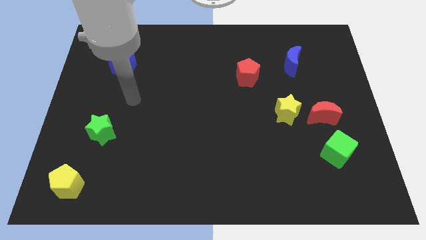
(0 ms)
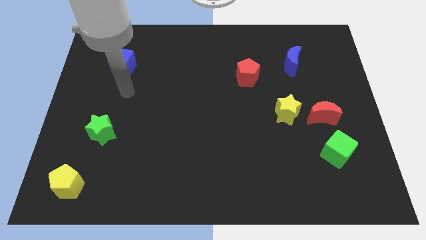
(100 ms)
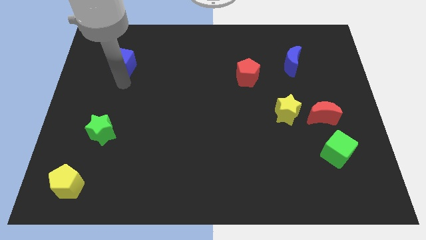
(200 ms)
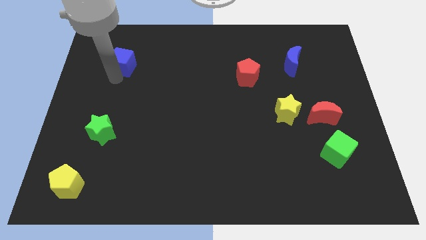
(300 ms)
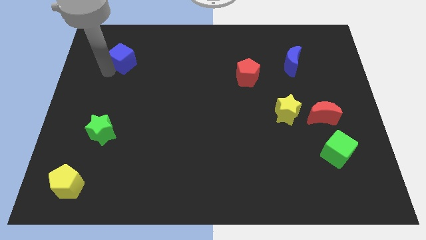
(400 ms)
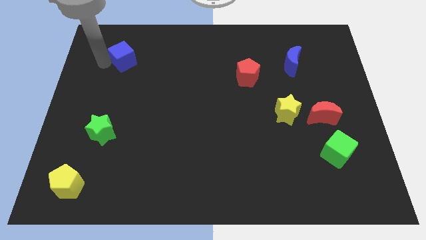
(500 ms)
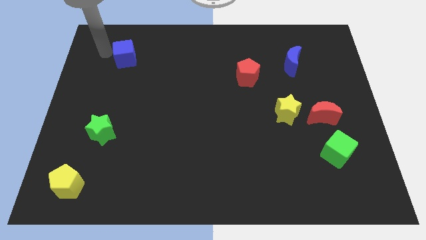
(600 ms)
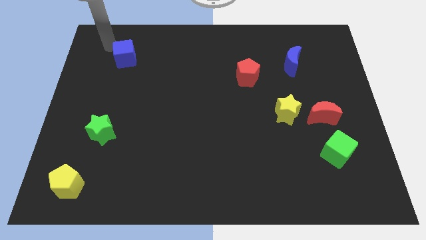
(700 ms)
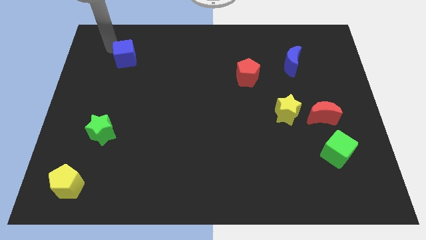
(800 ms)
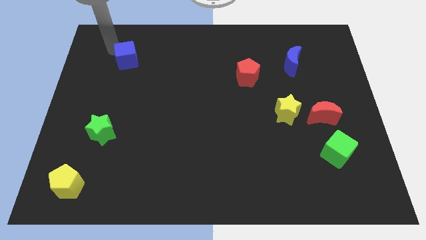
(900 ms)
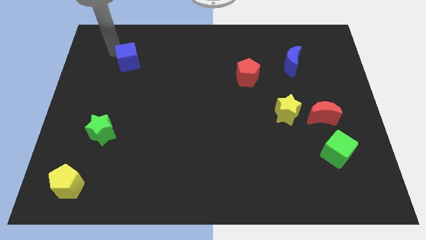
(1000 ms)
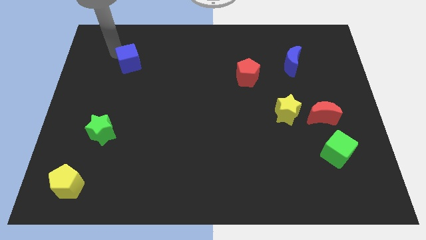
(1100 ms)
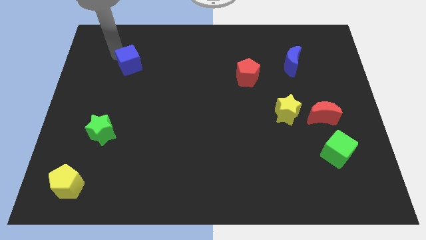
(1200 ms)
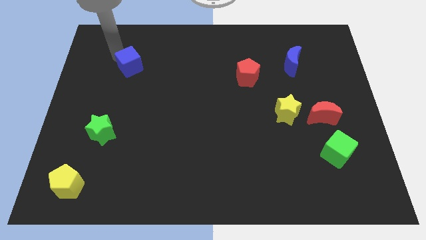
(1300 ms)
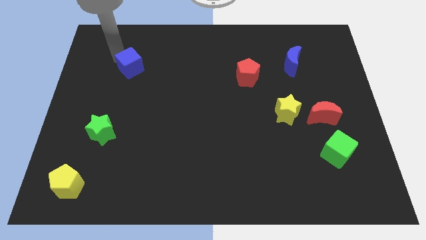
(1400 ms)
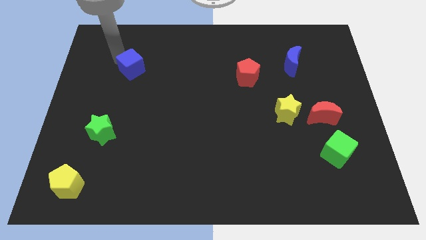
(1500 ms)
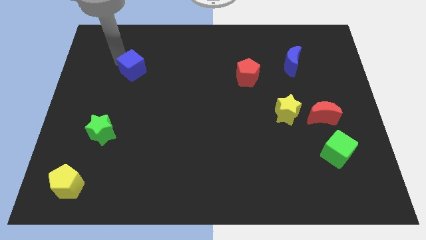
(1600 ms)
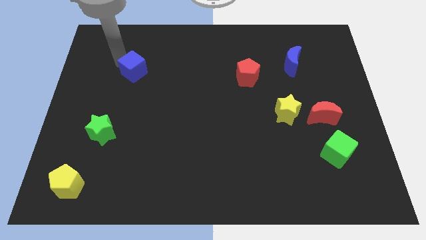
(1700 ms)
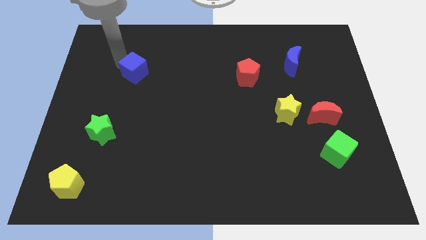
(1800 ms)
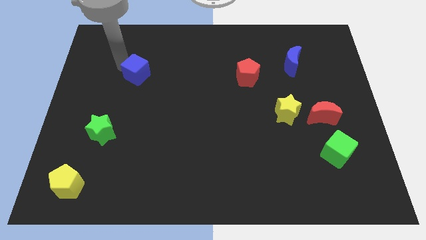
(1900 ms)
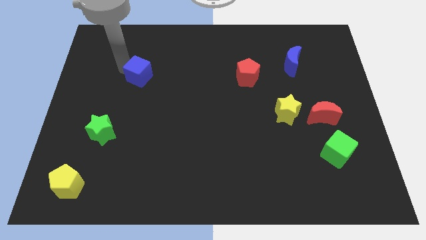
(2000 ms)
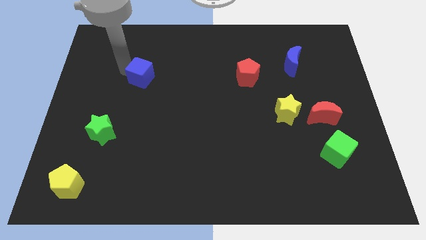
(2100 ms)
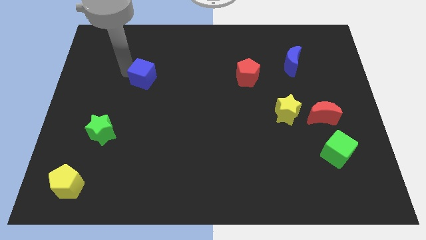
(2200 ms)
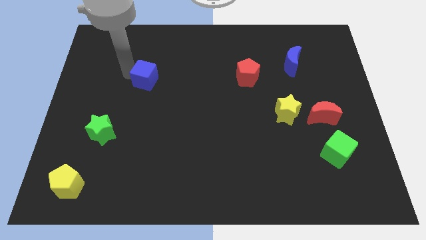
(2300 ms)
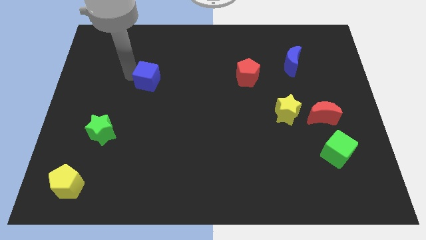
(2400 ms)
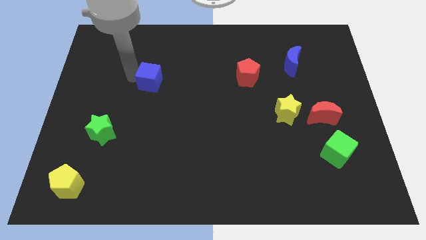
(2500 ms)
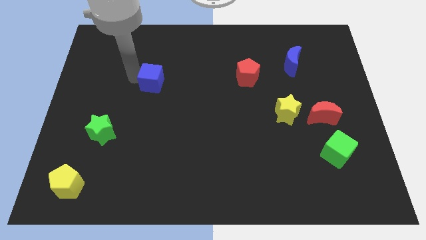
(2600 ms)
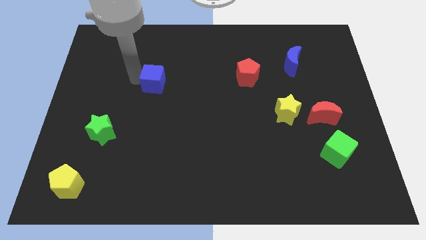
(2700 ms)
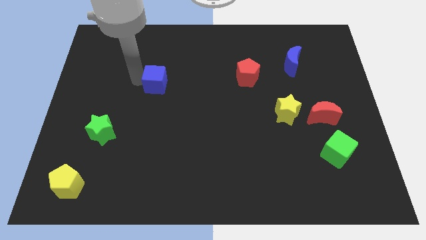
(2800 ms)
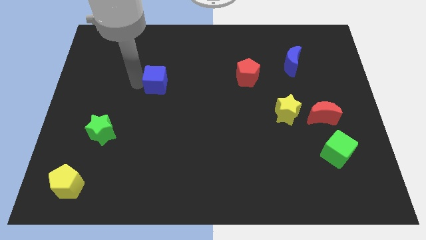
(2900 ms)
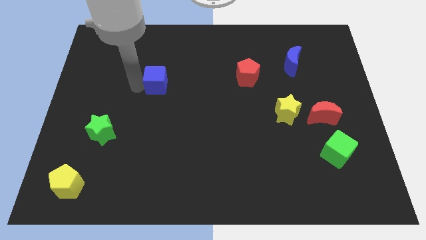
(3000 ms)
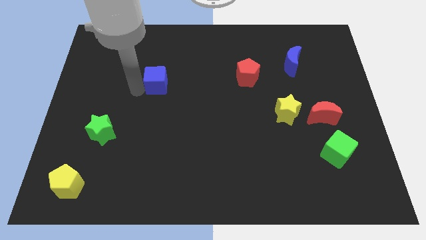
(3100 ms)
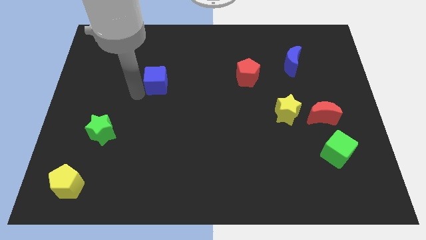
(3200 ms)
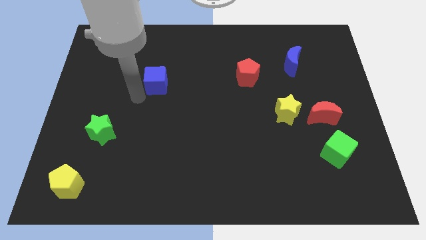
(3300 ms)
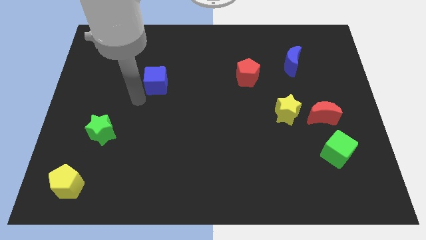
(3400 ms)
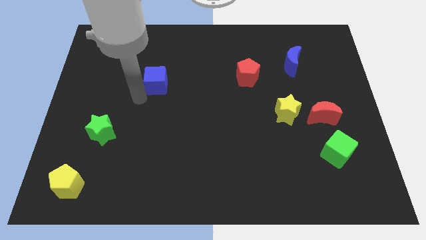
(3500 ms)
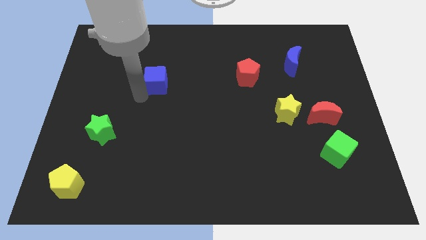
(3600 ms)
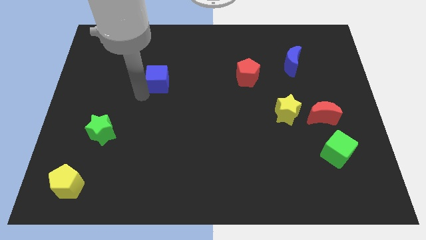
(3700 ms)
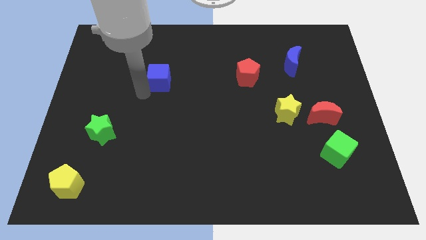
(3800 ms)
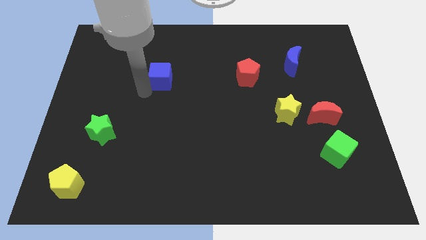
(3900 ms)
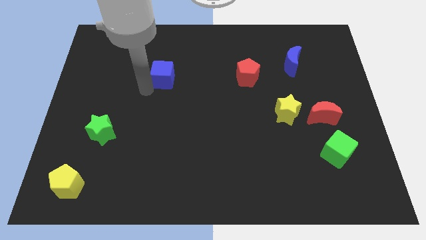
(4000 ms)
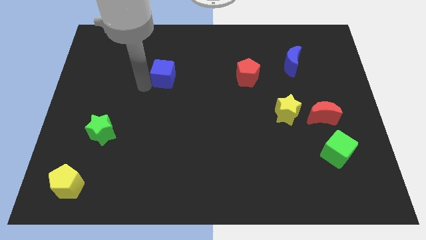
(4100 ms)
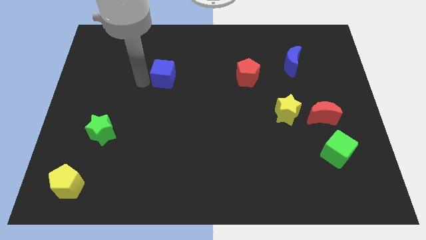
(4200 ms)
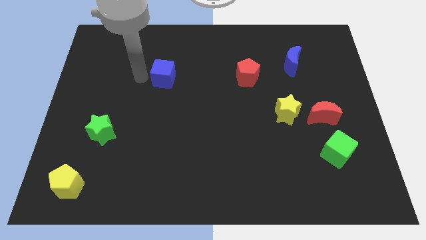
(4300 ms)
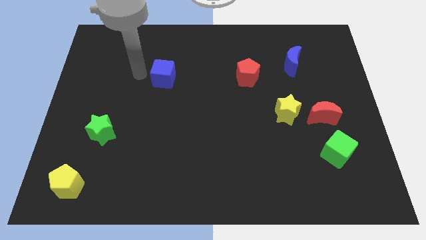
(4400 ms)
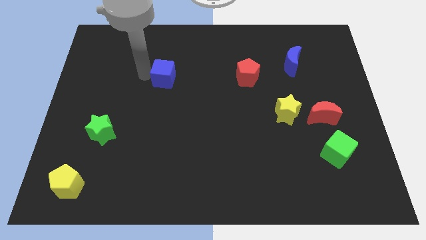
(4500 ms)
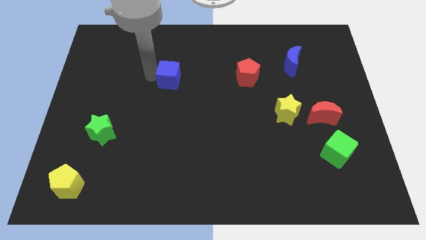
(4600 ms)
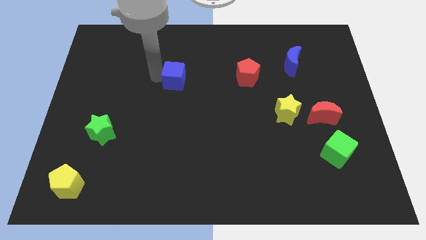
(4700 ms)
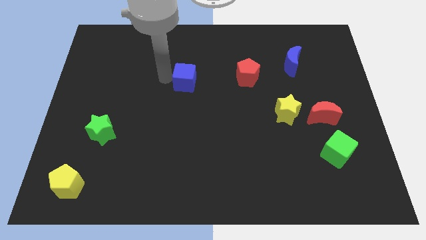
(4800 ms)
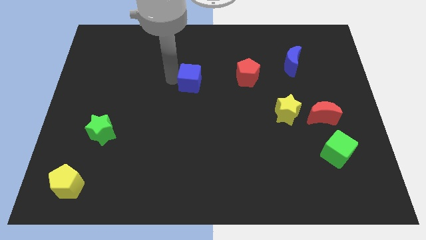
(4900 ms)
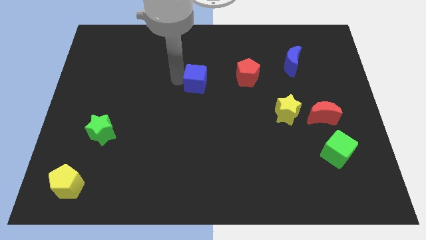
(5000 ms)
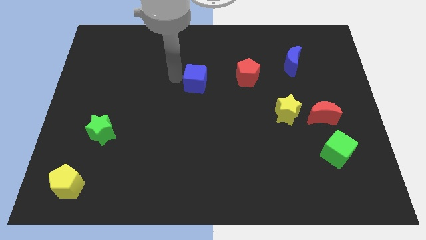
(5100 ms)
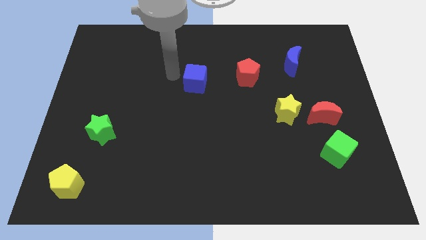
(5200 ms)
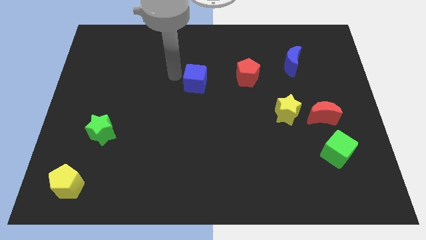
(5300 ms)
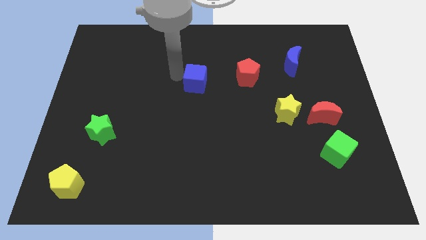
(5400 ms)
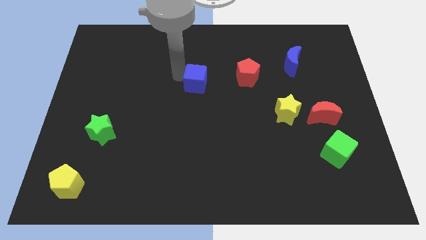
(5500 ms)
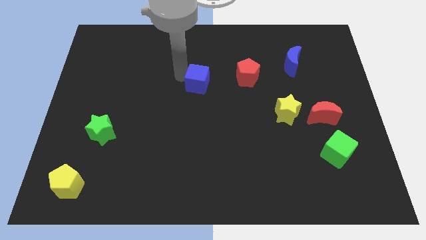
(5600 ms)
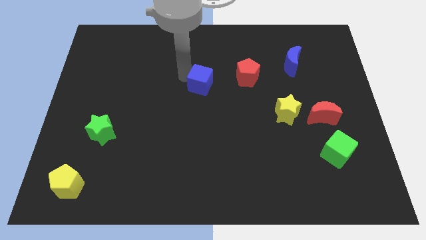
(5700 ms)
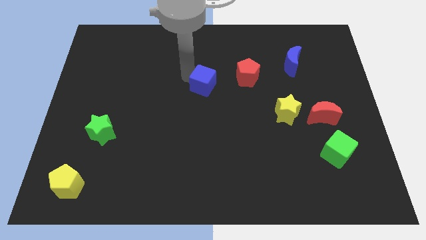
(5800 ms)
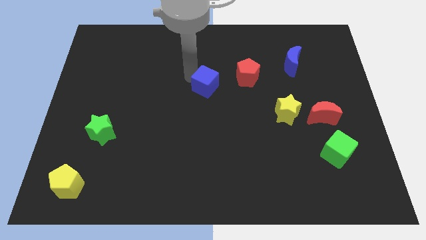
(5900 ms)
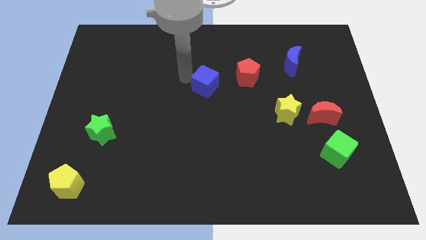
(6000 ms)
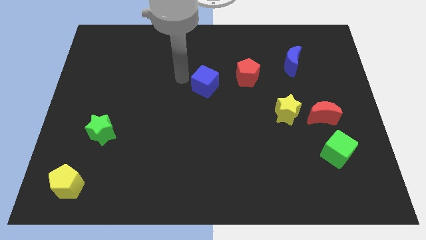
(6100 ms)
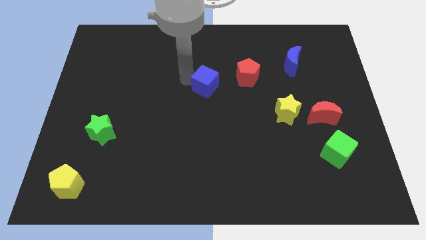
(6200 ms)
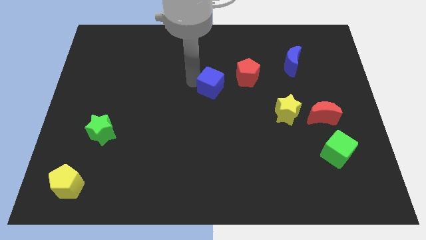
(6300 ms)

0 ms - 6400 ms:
put the blue cube to the bottom left of the red pentagon

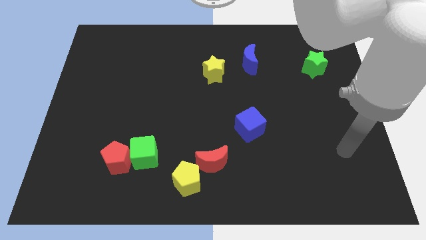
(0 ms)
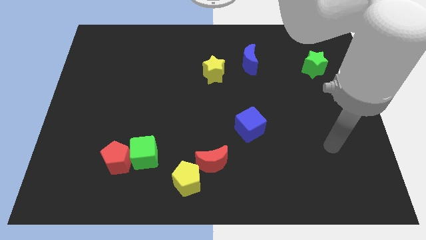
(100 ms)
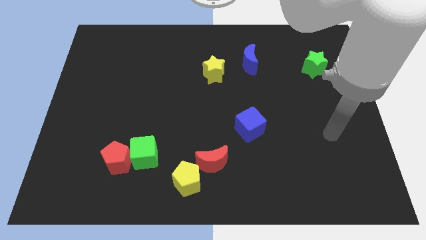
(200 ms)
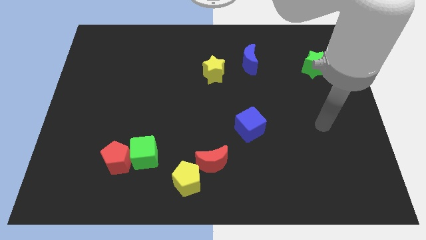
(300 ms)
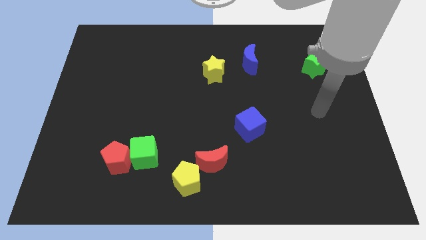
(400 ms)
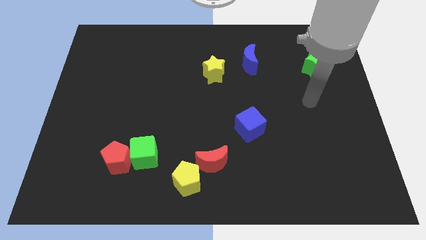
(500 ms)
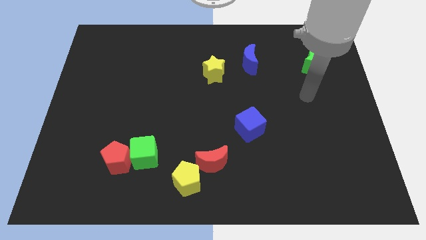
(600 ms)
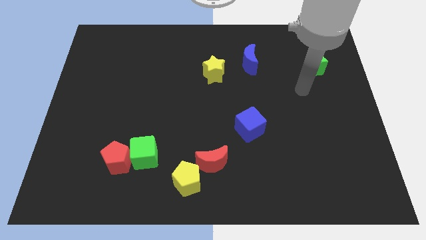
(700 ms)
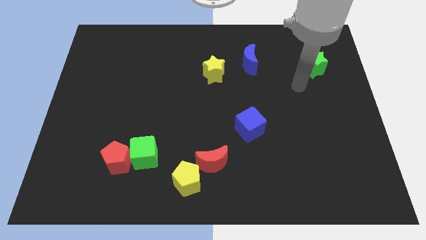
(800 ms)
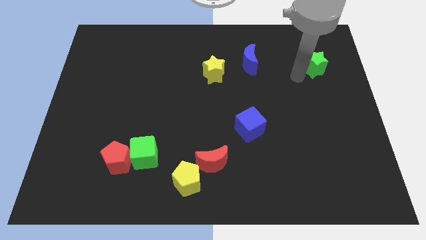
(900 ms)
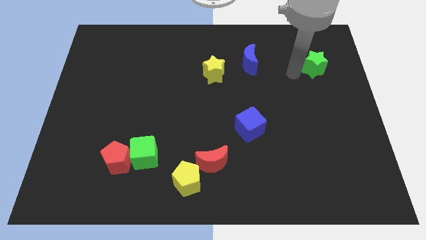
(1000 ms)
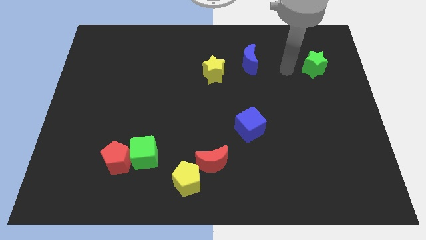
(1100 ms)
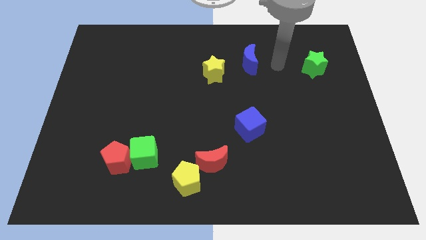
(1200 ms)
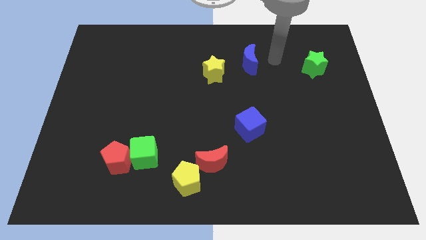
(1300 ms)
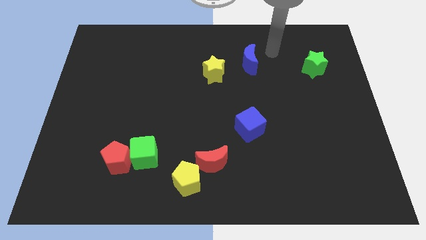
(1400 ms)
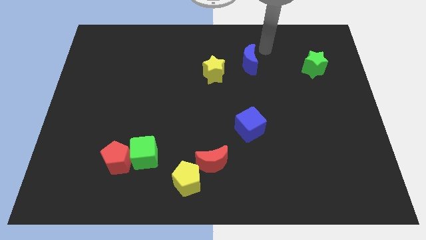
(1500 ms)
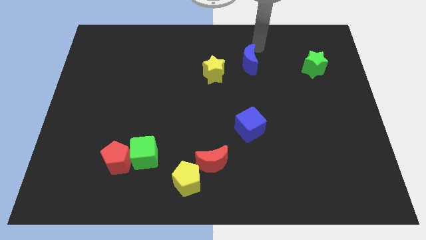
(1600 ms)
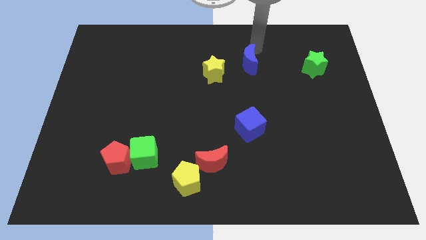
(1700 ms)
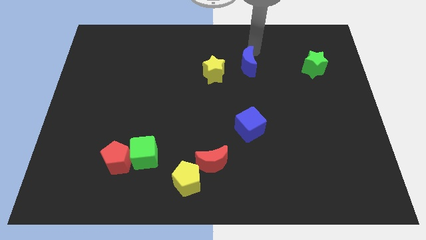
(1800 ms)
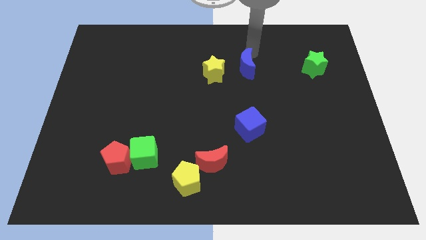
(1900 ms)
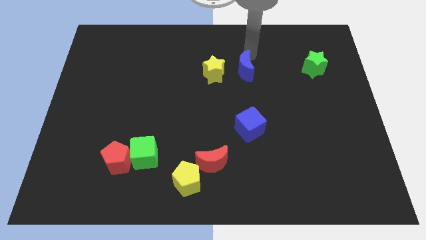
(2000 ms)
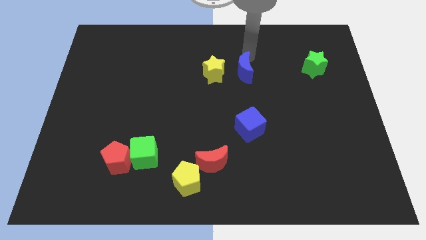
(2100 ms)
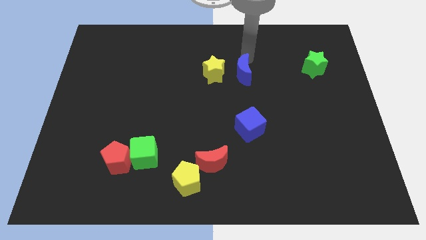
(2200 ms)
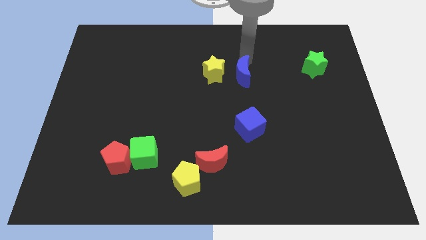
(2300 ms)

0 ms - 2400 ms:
push the blue moon to the bottom right of the yellow star
